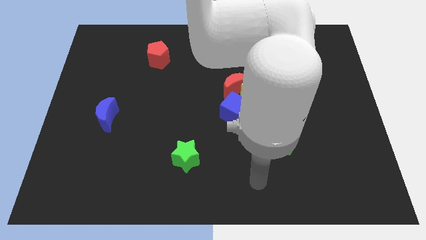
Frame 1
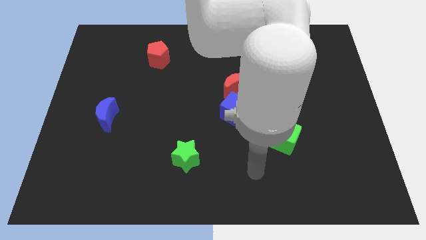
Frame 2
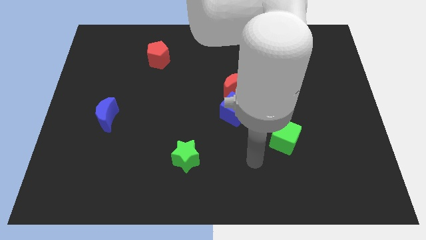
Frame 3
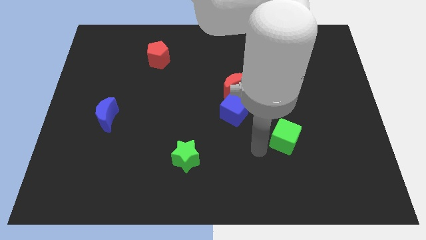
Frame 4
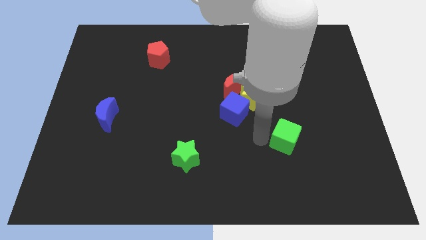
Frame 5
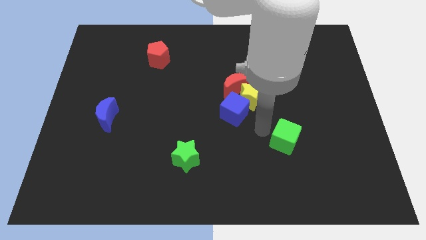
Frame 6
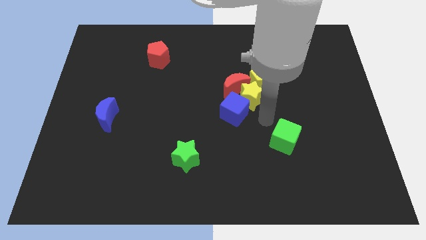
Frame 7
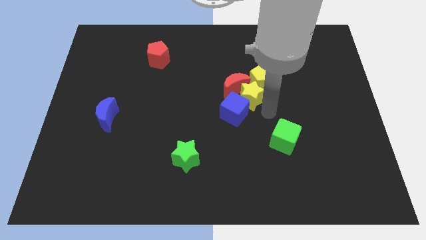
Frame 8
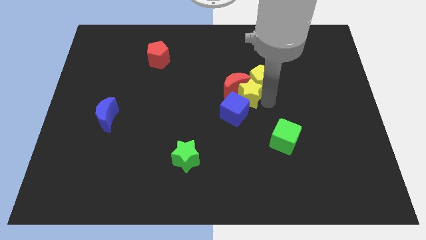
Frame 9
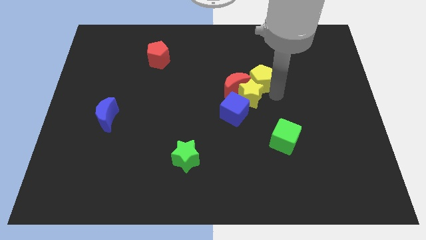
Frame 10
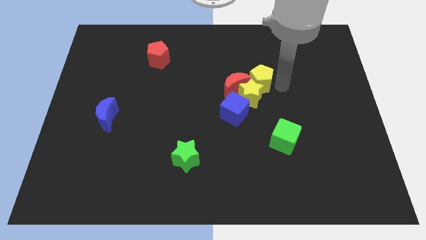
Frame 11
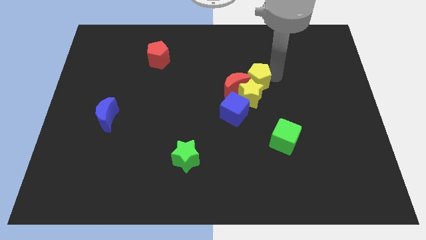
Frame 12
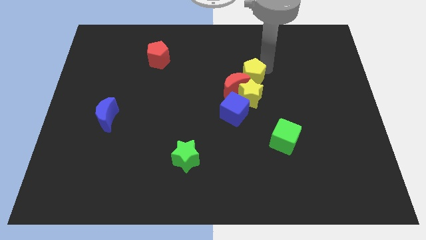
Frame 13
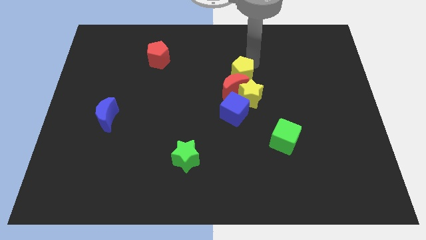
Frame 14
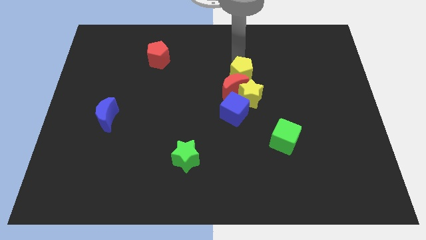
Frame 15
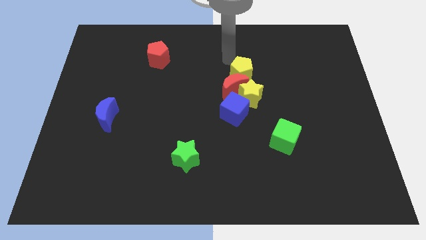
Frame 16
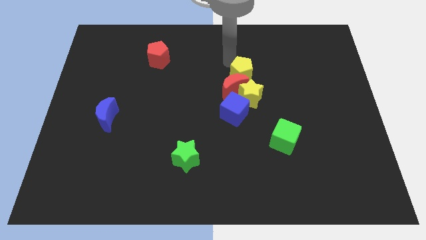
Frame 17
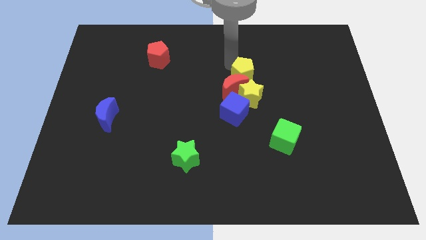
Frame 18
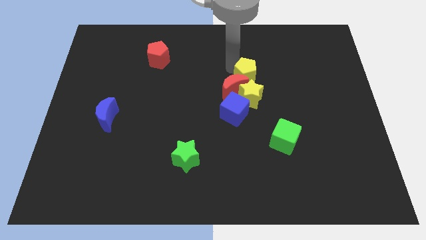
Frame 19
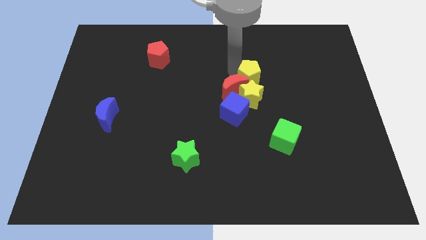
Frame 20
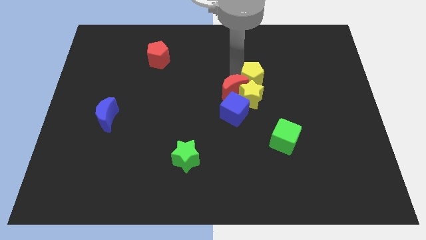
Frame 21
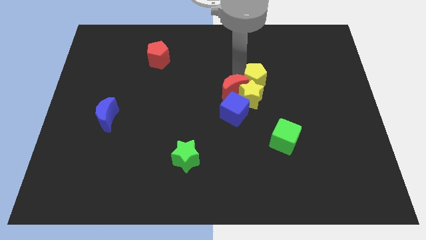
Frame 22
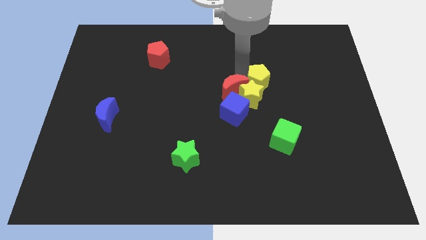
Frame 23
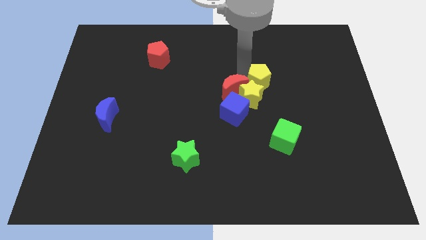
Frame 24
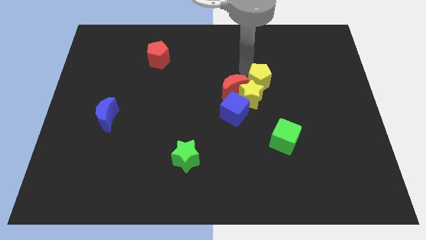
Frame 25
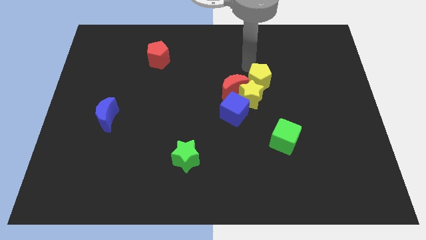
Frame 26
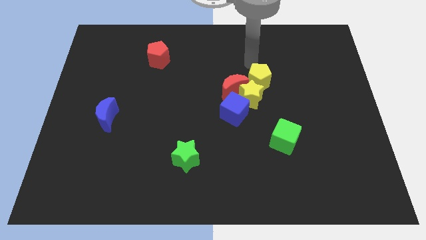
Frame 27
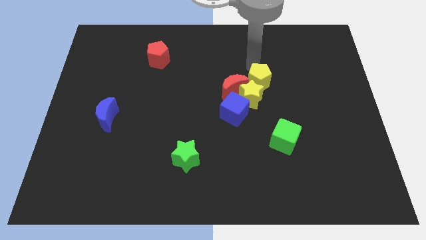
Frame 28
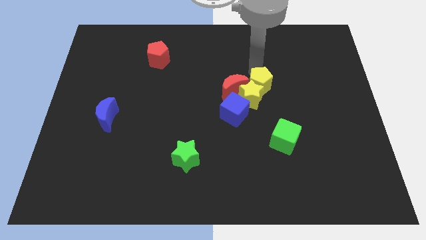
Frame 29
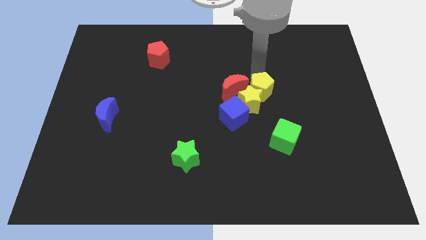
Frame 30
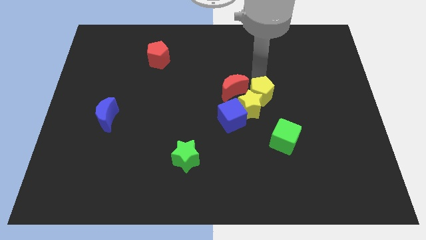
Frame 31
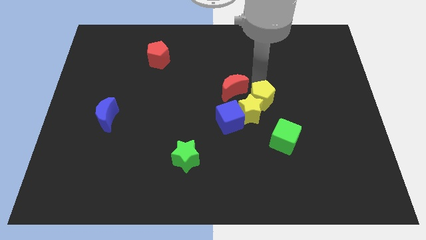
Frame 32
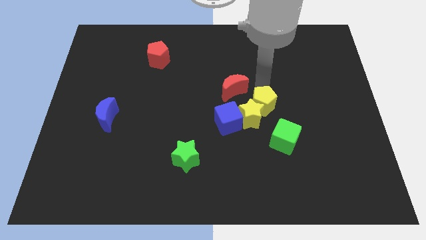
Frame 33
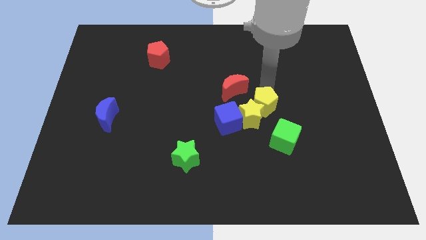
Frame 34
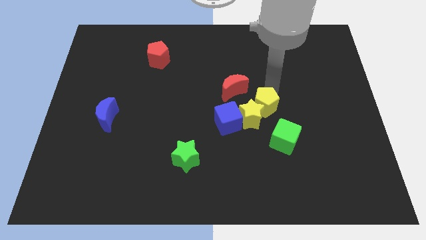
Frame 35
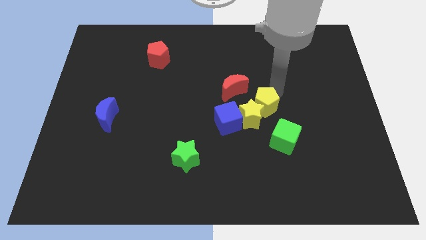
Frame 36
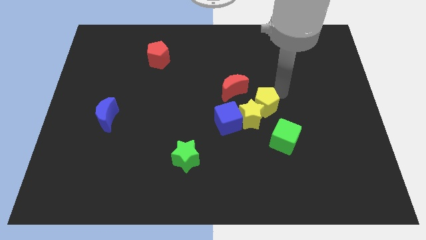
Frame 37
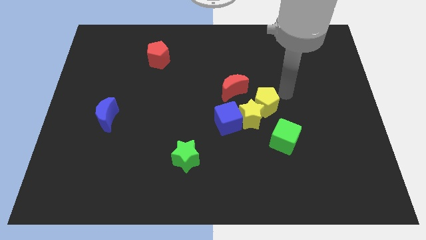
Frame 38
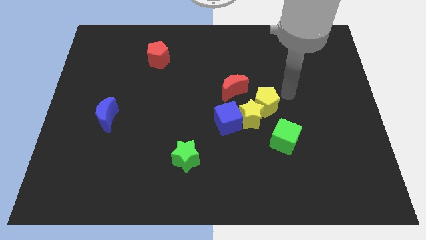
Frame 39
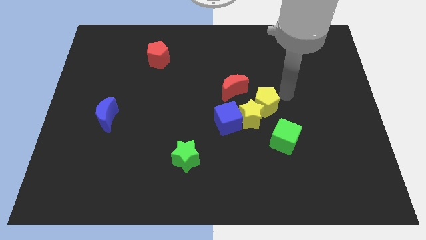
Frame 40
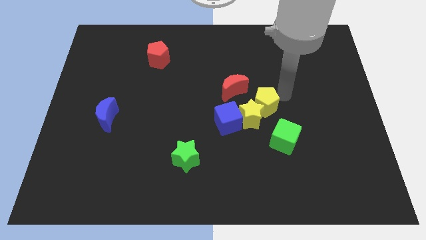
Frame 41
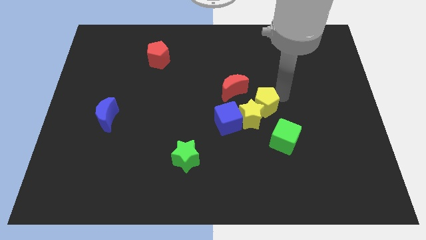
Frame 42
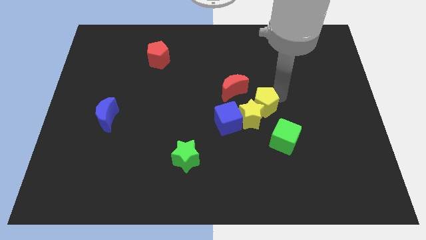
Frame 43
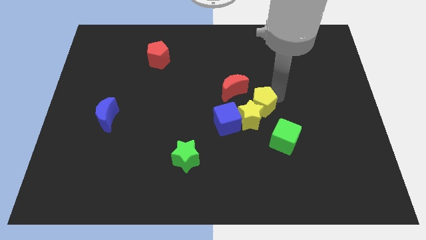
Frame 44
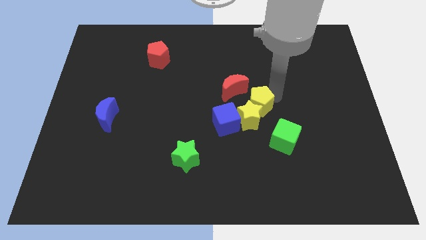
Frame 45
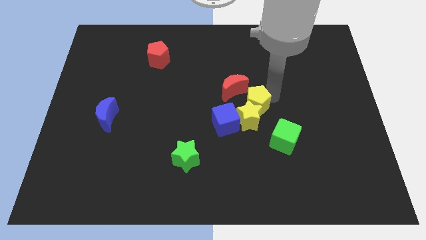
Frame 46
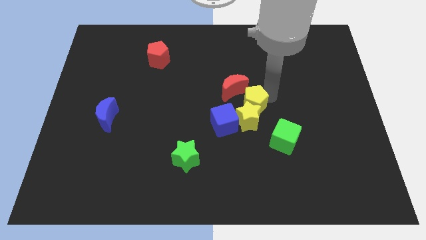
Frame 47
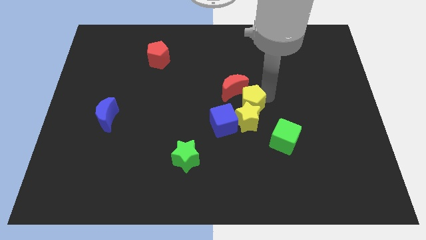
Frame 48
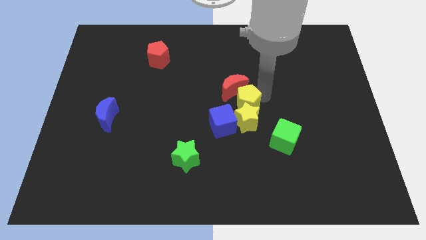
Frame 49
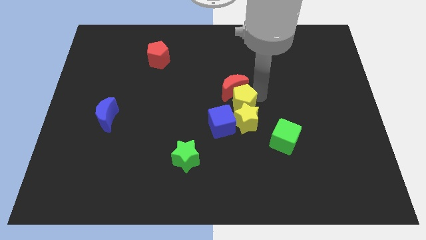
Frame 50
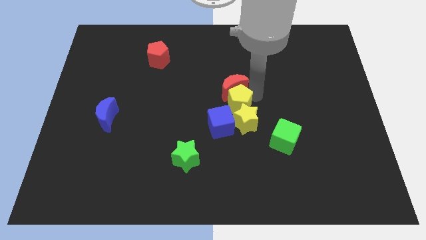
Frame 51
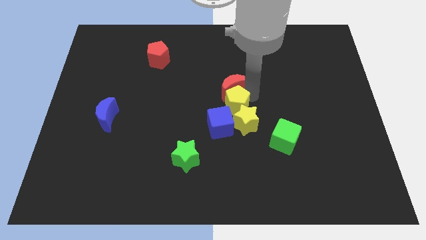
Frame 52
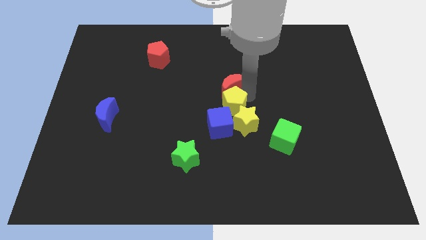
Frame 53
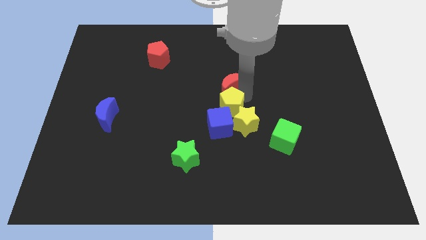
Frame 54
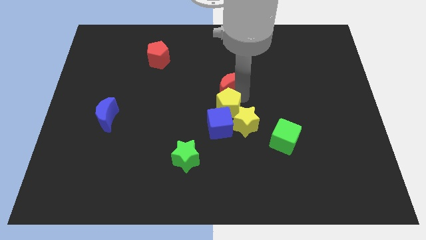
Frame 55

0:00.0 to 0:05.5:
slide the yellow pentagon close to the blue cube

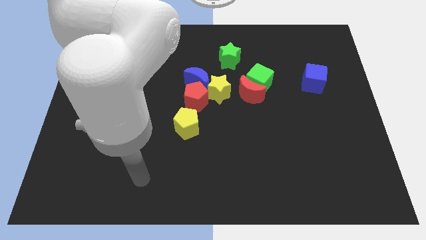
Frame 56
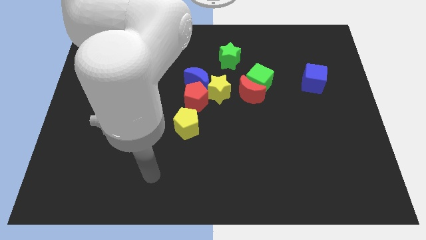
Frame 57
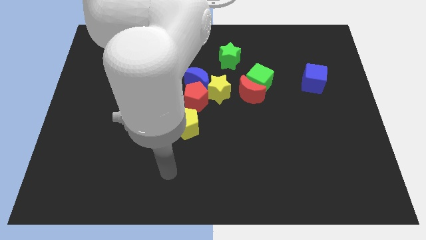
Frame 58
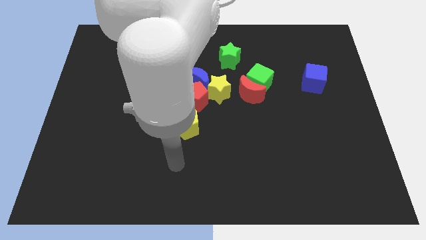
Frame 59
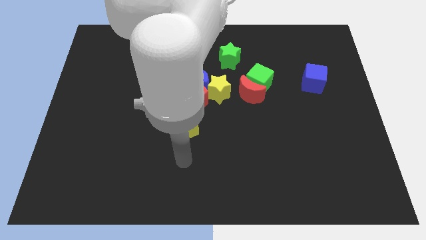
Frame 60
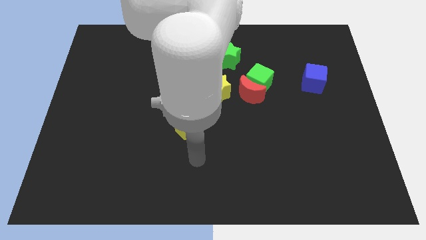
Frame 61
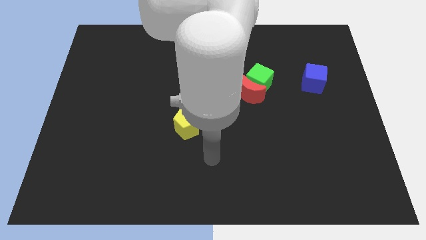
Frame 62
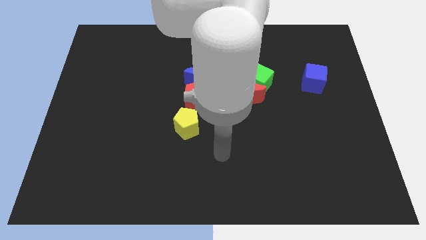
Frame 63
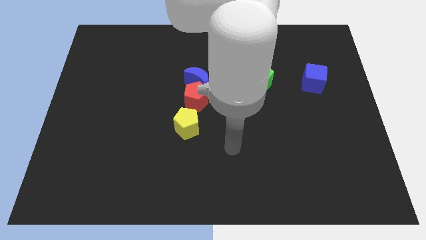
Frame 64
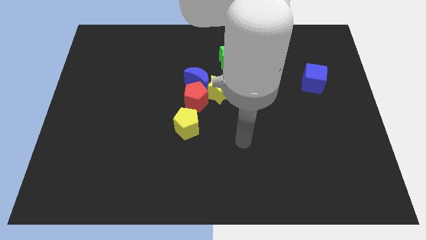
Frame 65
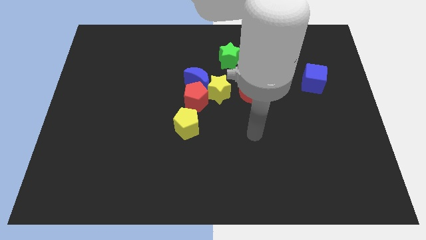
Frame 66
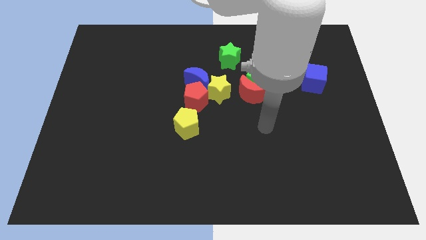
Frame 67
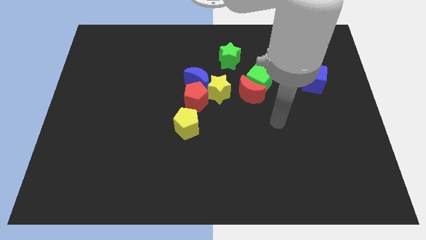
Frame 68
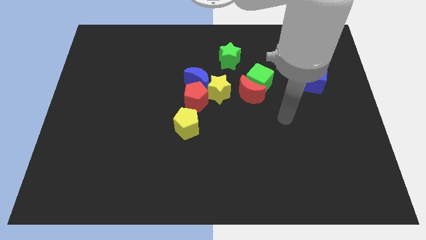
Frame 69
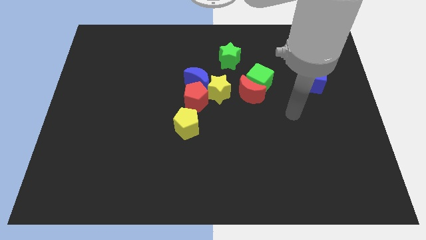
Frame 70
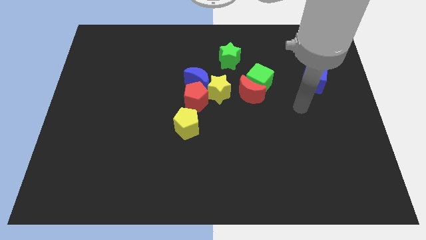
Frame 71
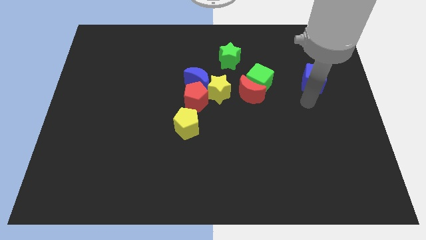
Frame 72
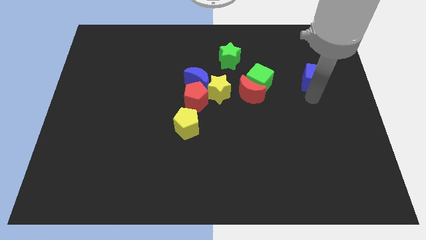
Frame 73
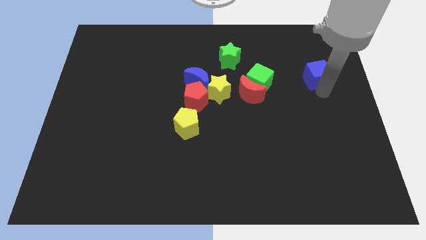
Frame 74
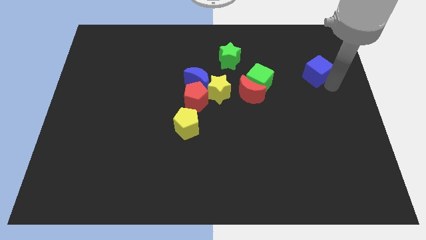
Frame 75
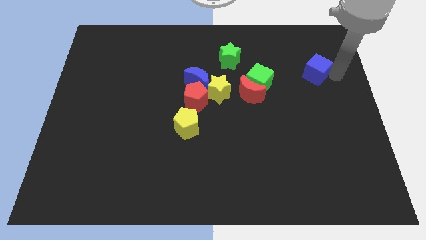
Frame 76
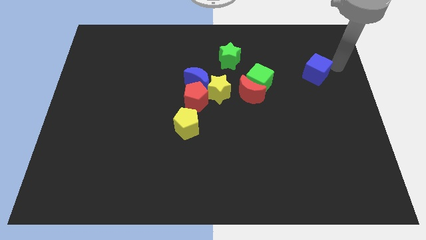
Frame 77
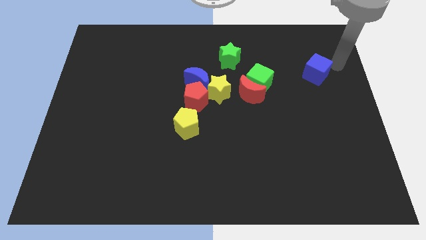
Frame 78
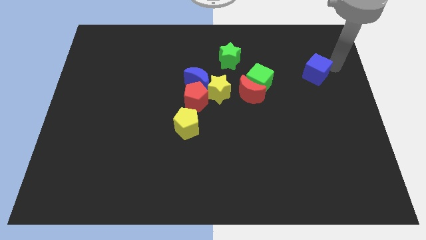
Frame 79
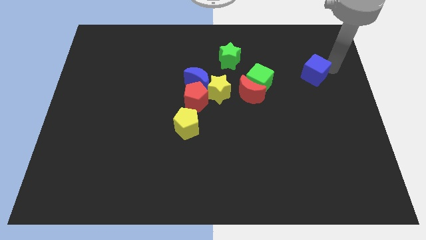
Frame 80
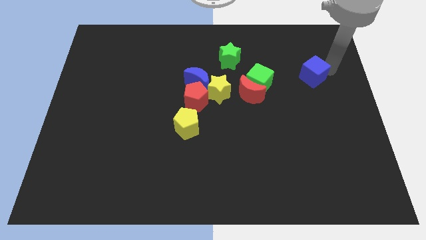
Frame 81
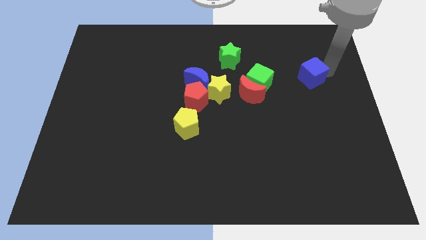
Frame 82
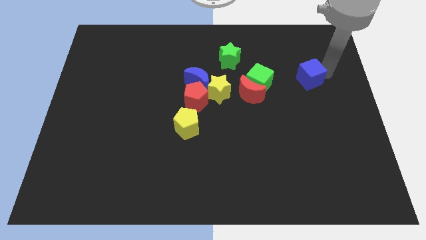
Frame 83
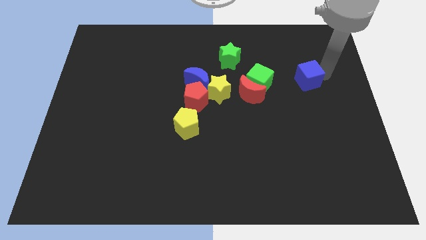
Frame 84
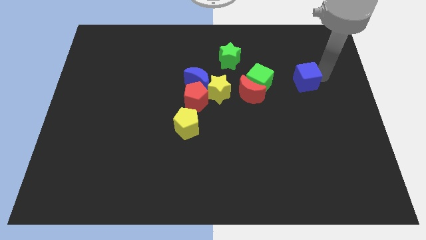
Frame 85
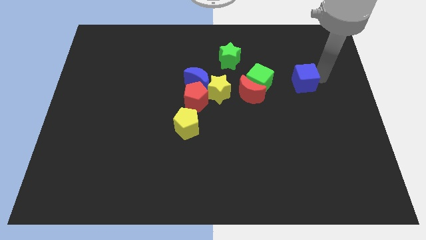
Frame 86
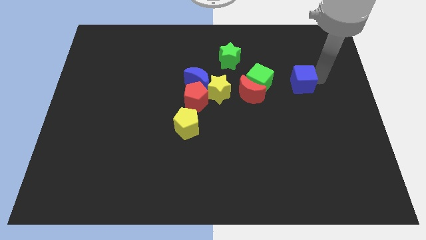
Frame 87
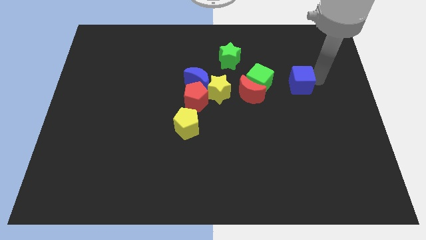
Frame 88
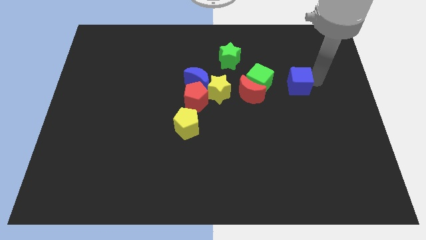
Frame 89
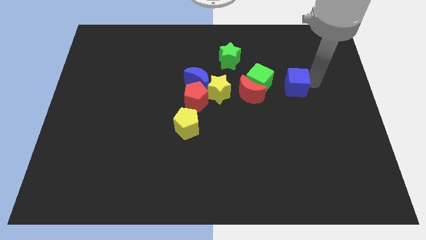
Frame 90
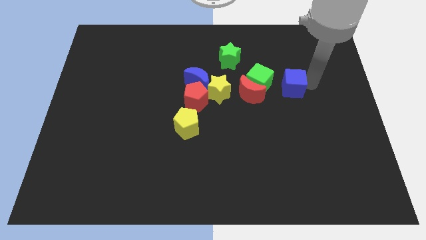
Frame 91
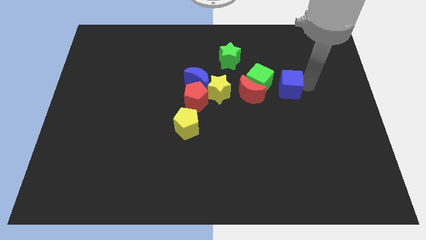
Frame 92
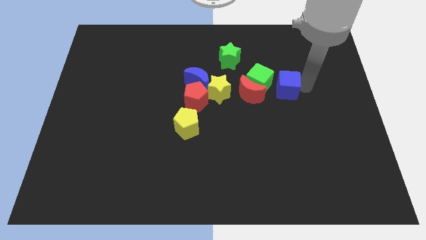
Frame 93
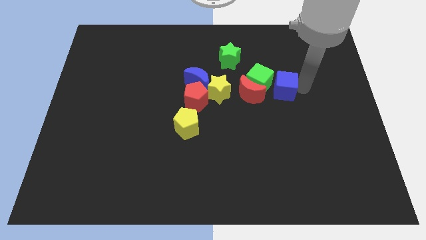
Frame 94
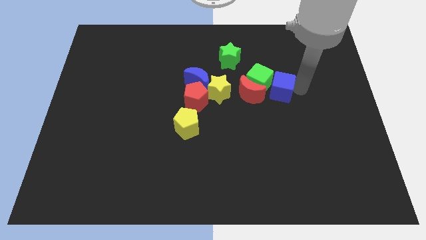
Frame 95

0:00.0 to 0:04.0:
push the blue cube next to the green cube
